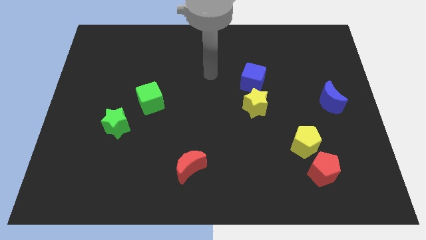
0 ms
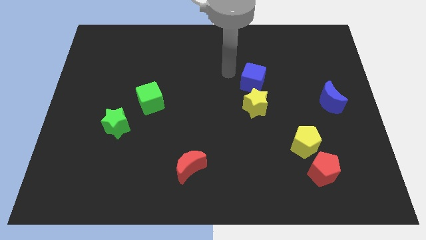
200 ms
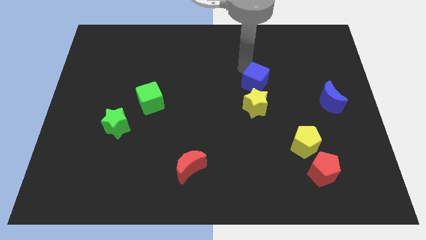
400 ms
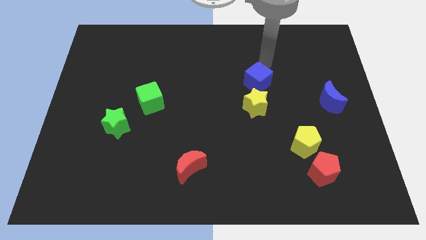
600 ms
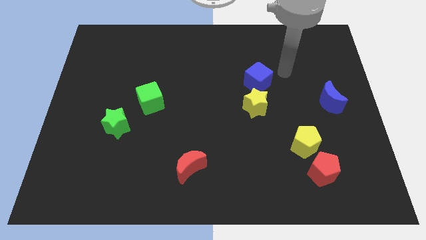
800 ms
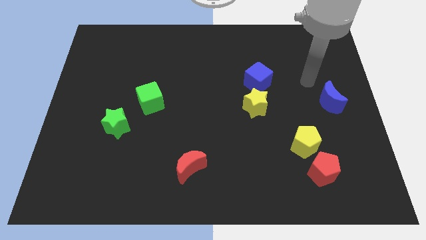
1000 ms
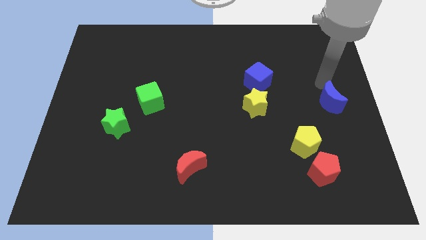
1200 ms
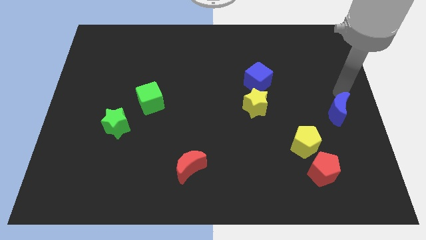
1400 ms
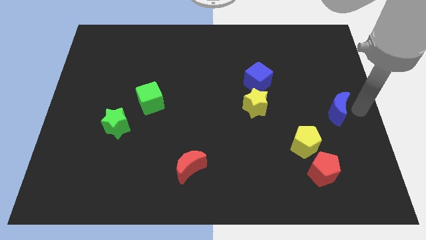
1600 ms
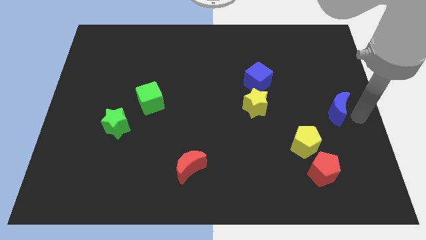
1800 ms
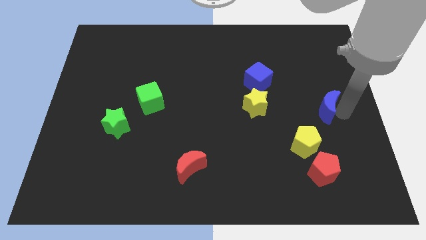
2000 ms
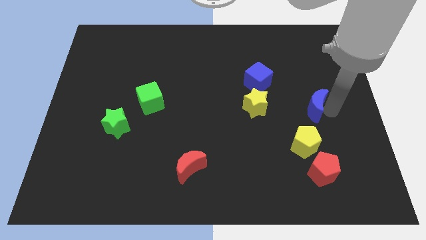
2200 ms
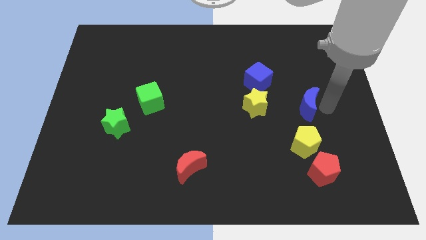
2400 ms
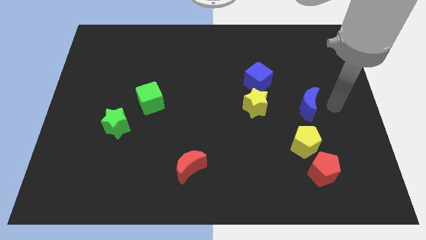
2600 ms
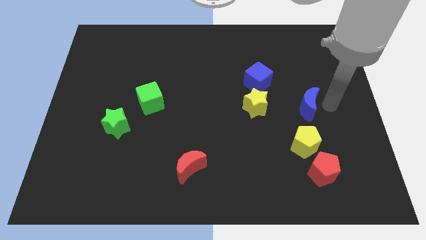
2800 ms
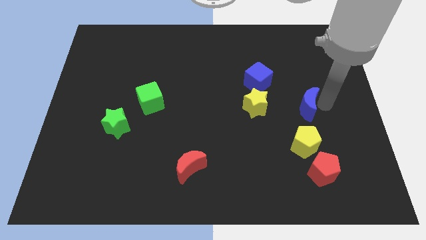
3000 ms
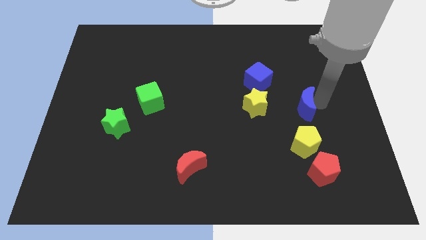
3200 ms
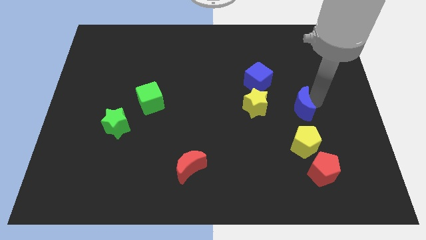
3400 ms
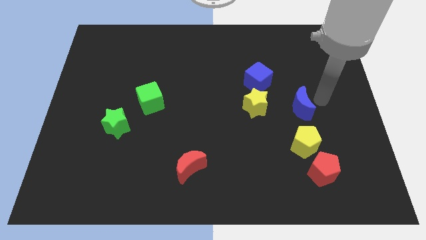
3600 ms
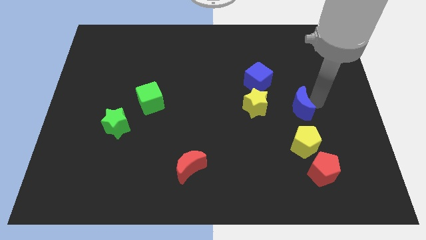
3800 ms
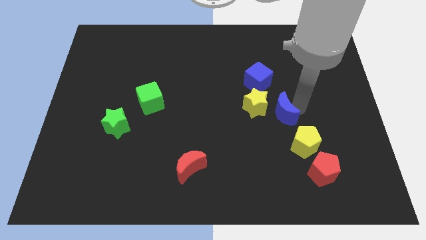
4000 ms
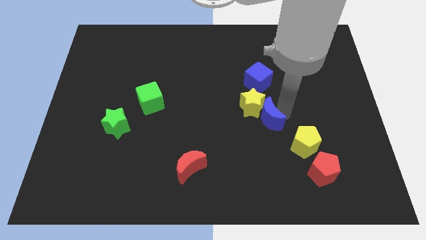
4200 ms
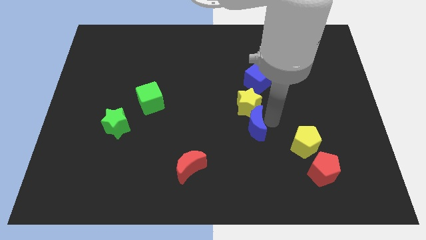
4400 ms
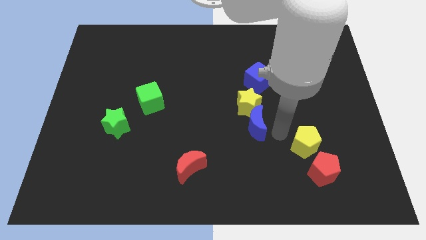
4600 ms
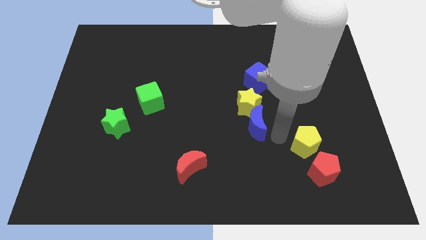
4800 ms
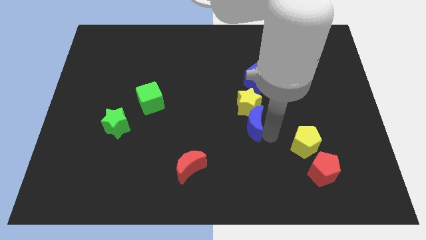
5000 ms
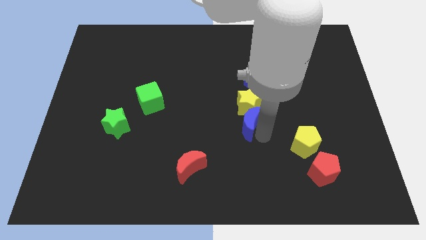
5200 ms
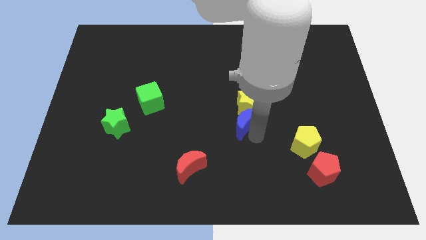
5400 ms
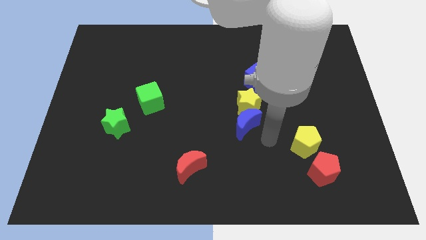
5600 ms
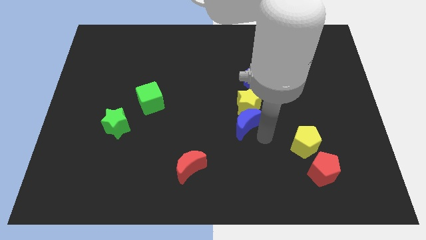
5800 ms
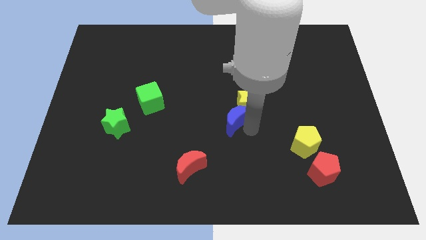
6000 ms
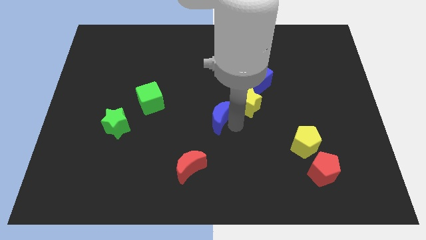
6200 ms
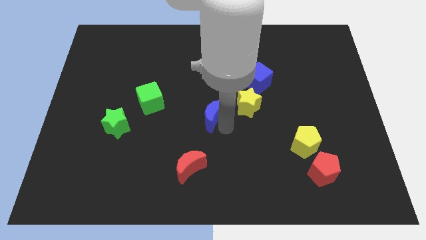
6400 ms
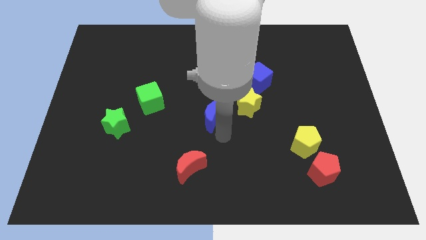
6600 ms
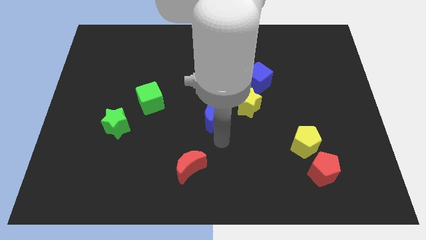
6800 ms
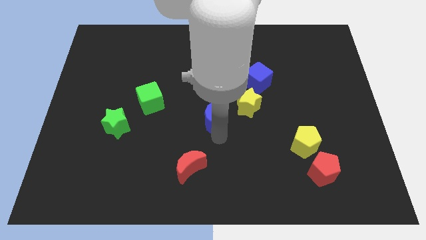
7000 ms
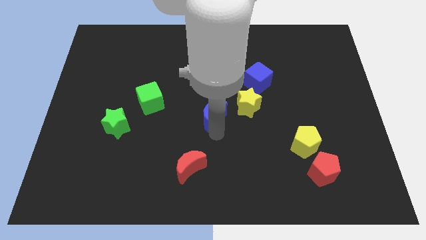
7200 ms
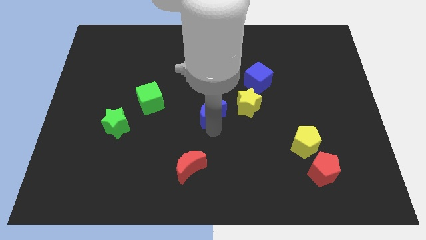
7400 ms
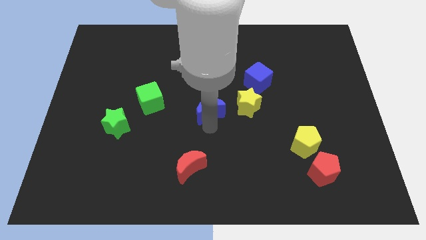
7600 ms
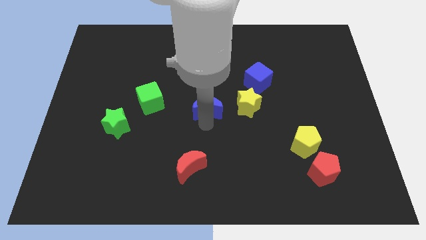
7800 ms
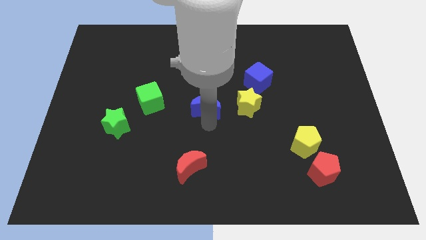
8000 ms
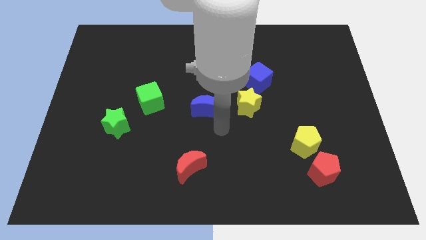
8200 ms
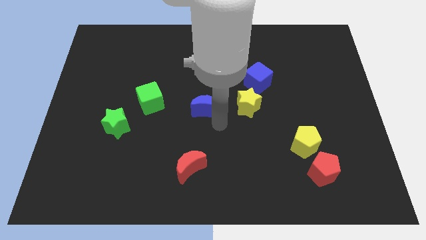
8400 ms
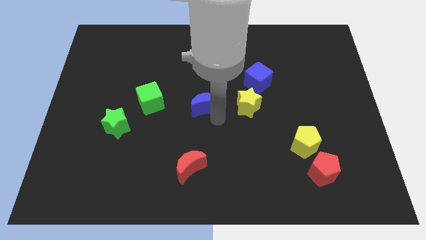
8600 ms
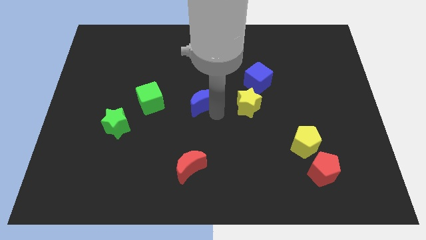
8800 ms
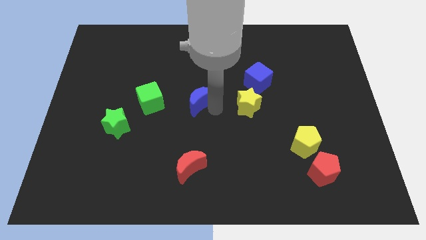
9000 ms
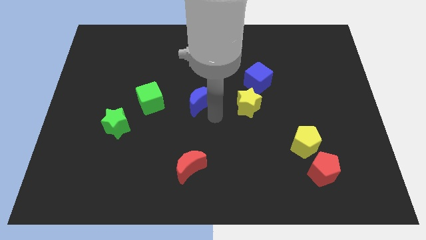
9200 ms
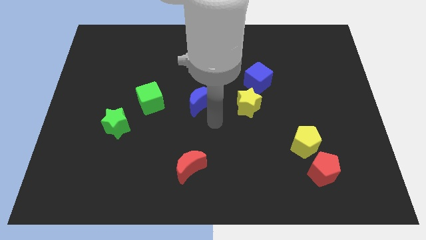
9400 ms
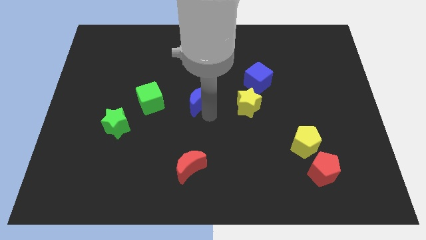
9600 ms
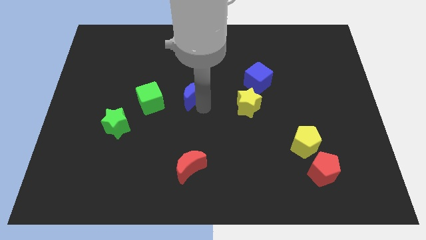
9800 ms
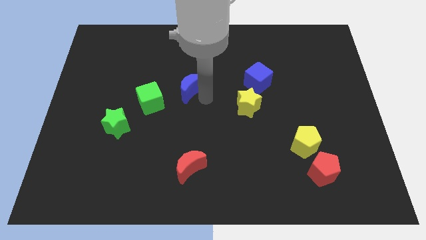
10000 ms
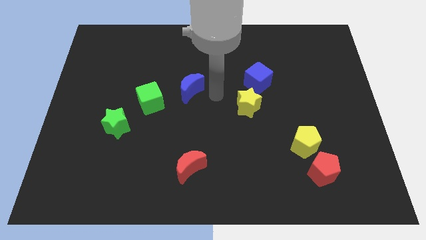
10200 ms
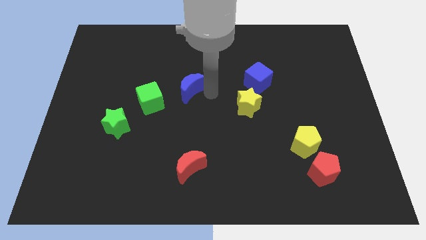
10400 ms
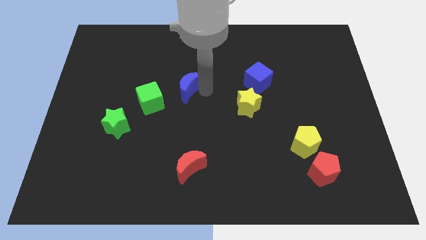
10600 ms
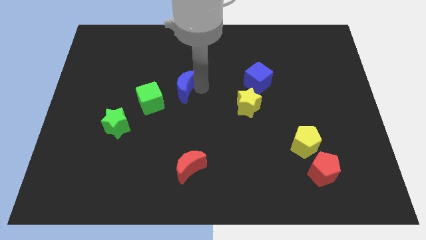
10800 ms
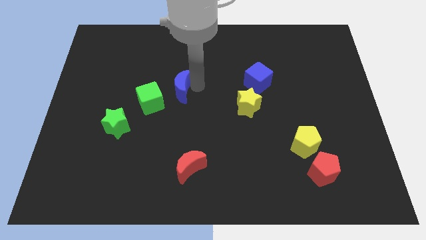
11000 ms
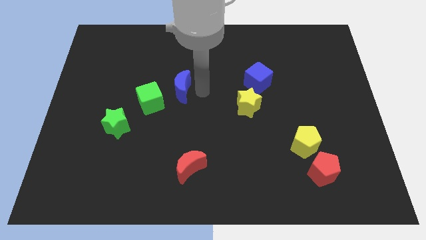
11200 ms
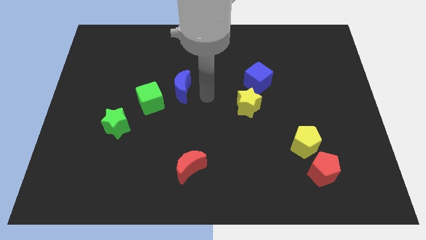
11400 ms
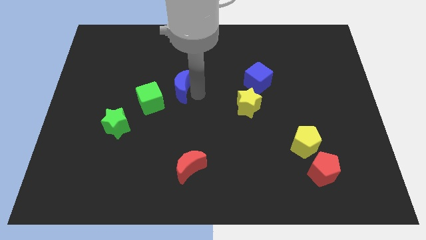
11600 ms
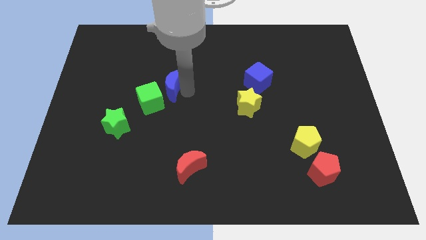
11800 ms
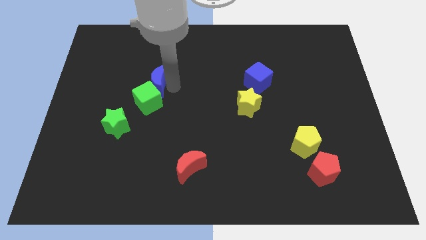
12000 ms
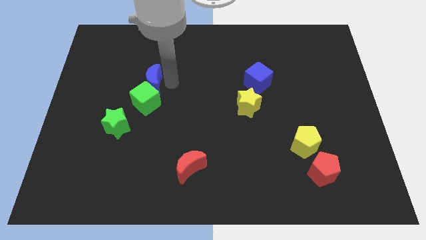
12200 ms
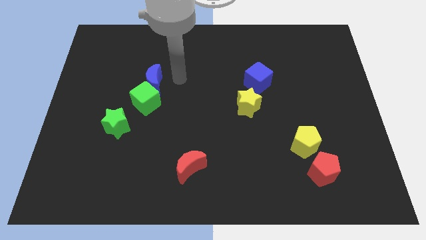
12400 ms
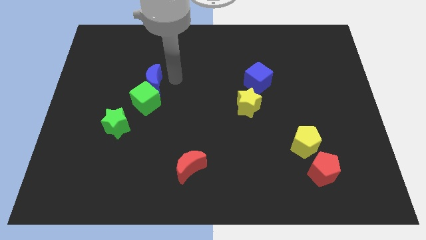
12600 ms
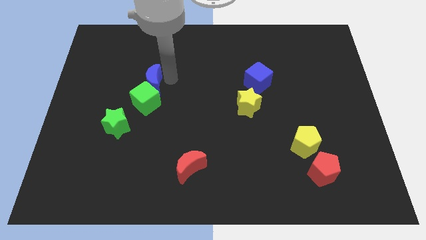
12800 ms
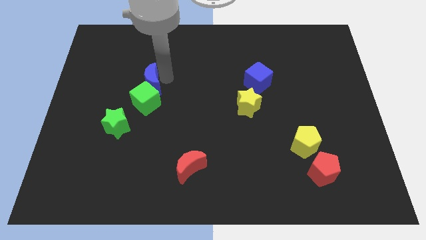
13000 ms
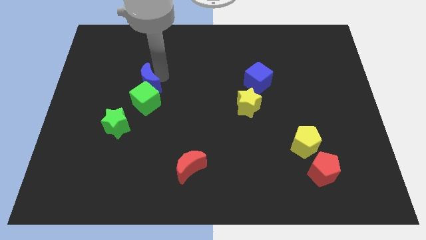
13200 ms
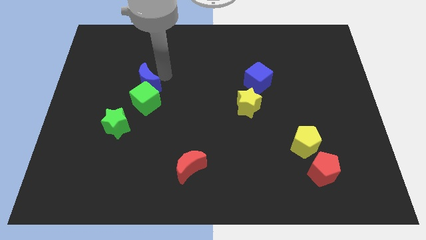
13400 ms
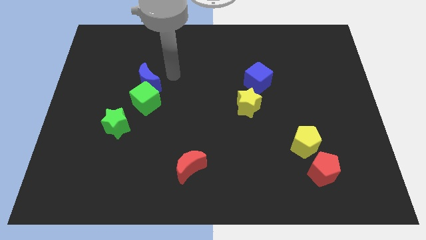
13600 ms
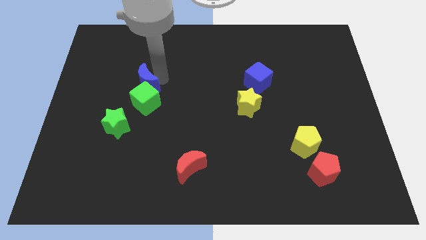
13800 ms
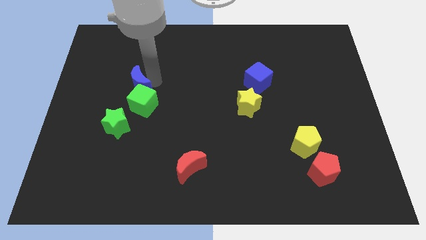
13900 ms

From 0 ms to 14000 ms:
push the blue moon above the green star
